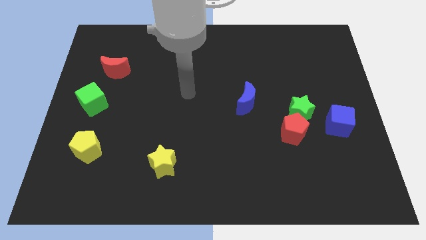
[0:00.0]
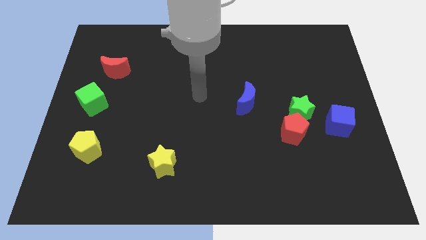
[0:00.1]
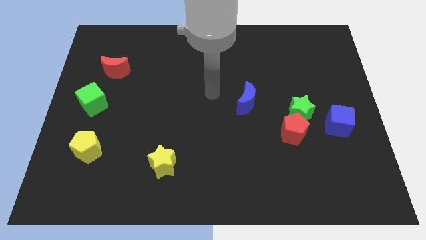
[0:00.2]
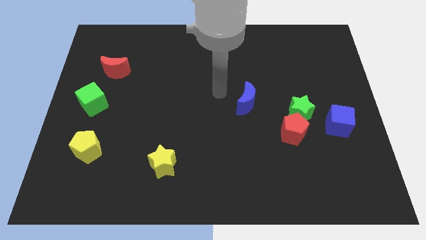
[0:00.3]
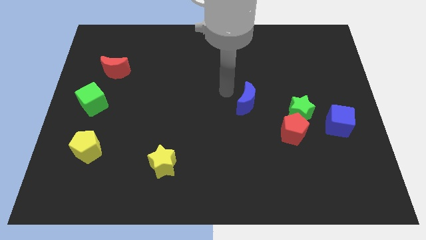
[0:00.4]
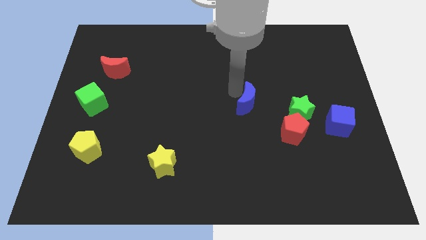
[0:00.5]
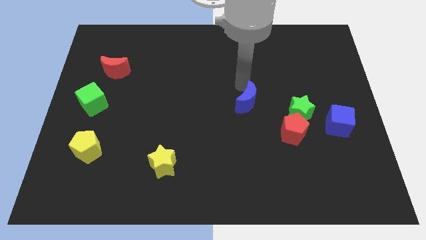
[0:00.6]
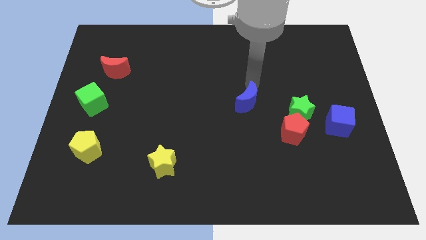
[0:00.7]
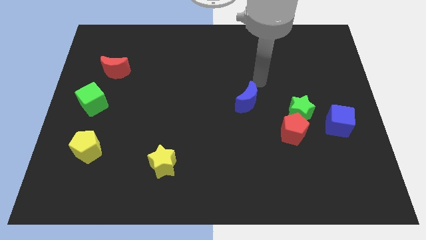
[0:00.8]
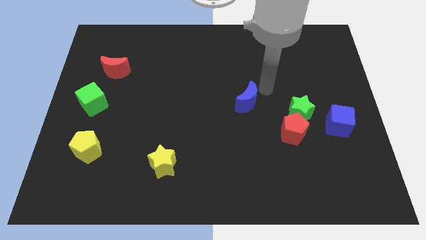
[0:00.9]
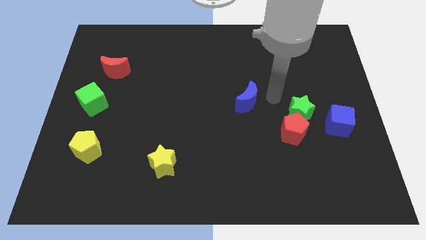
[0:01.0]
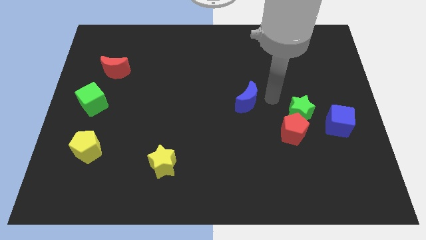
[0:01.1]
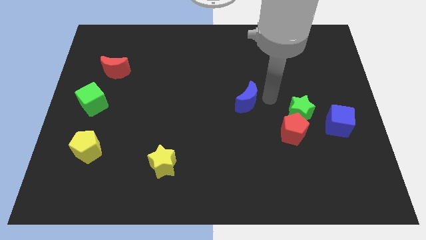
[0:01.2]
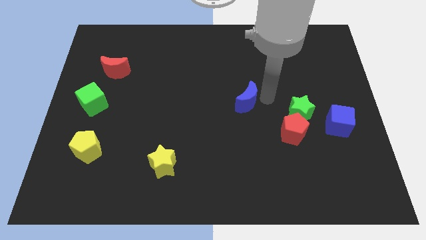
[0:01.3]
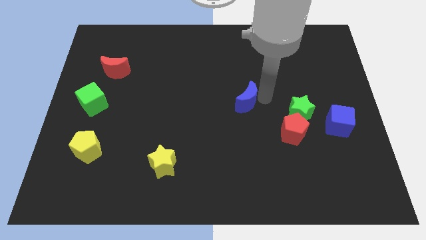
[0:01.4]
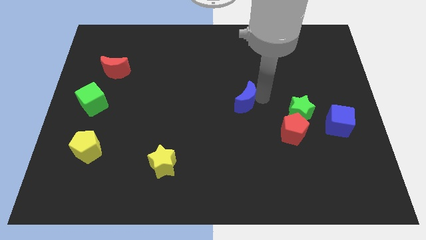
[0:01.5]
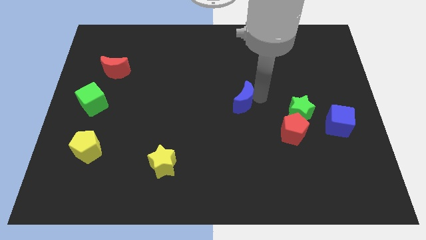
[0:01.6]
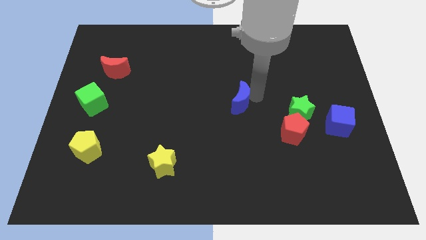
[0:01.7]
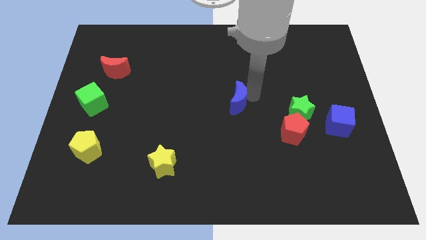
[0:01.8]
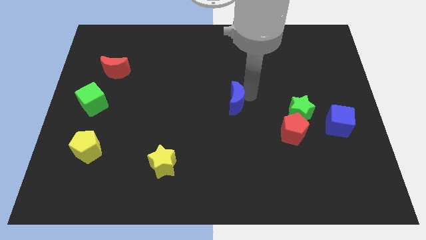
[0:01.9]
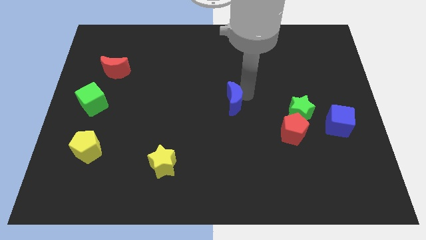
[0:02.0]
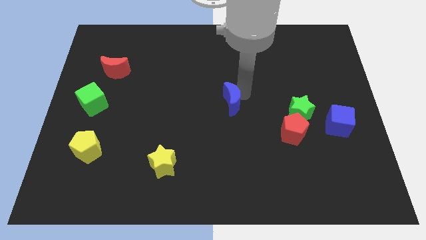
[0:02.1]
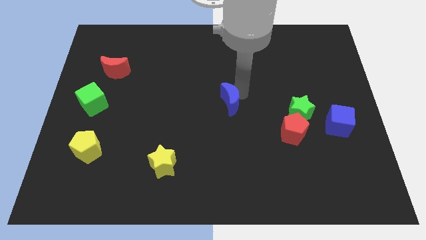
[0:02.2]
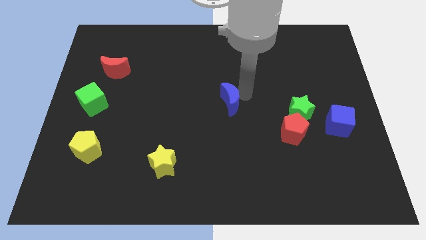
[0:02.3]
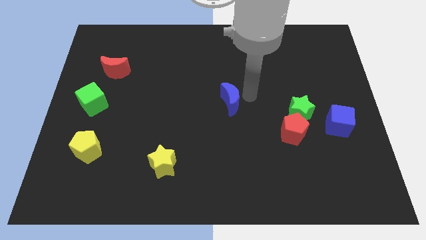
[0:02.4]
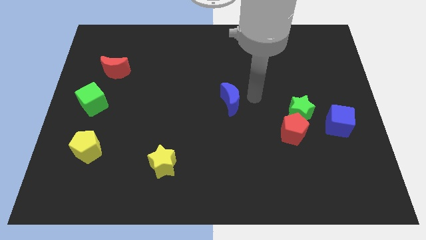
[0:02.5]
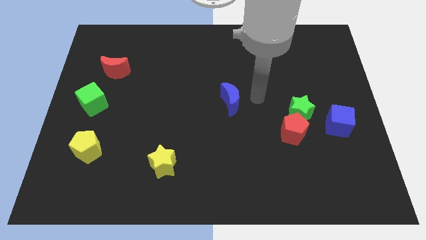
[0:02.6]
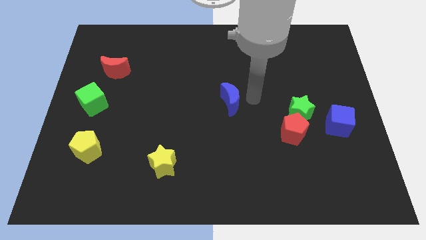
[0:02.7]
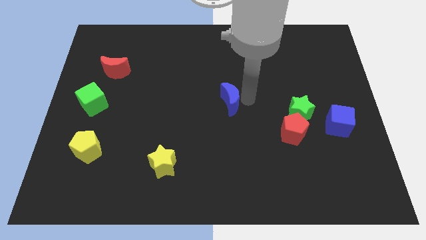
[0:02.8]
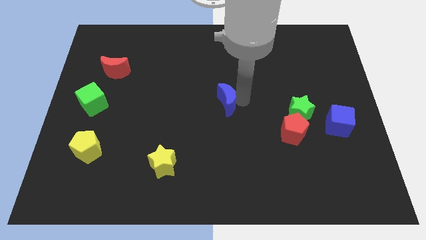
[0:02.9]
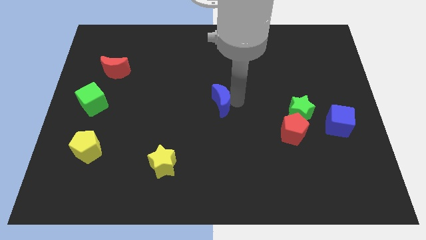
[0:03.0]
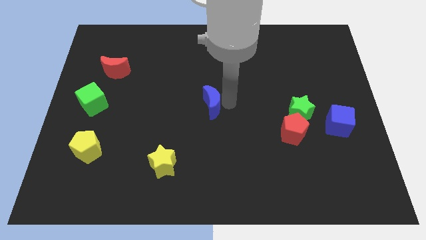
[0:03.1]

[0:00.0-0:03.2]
push the blue moon slightly left

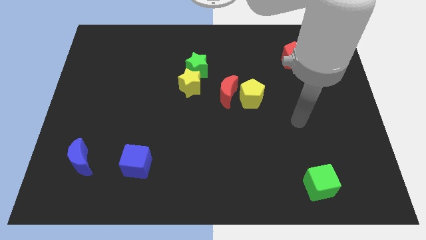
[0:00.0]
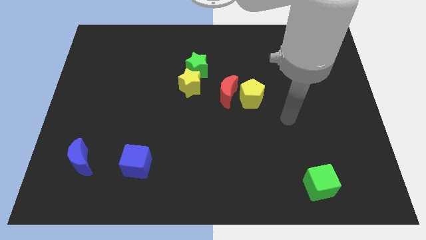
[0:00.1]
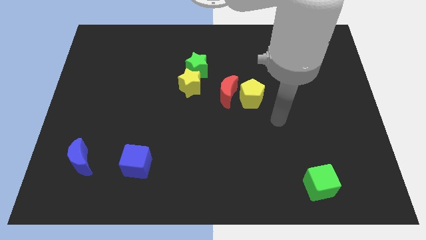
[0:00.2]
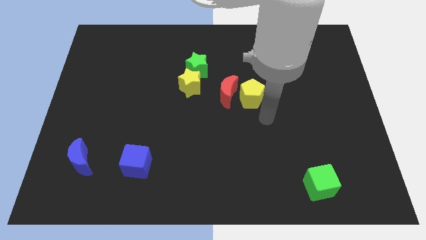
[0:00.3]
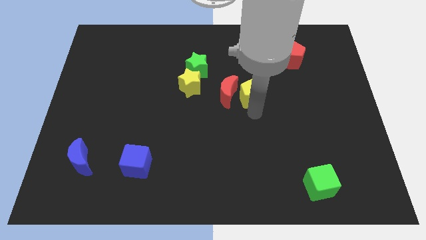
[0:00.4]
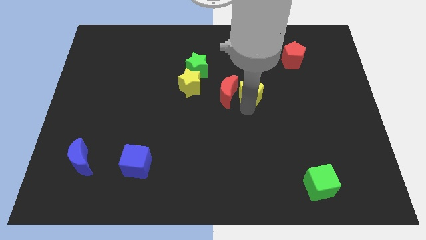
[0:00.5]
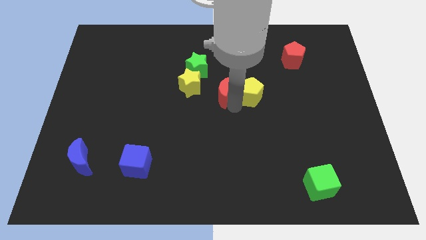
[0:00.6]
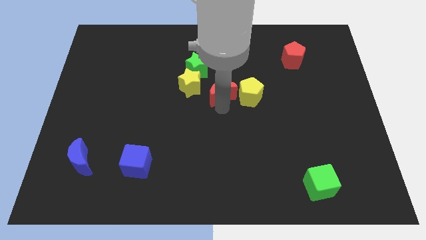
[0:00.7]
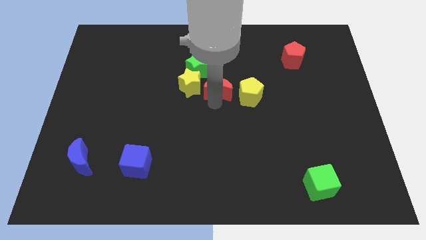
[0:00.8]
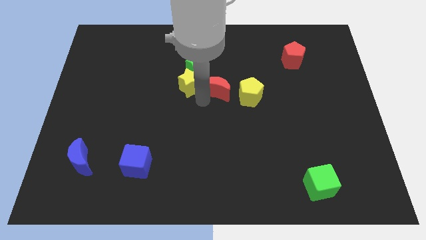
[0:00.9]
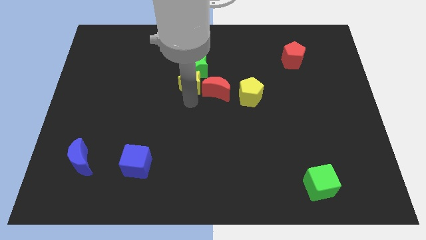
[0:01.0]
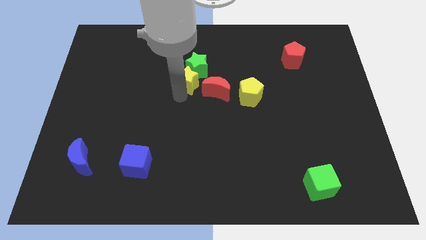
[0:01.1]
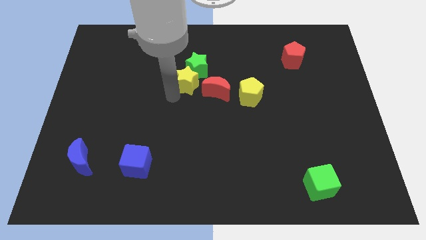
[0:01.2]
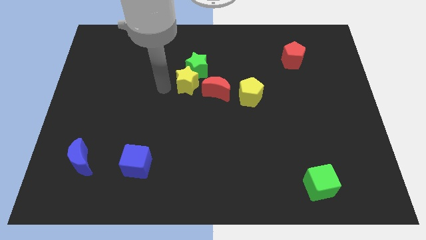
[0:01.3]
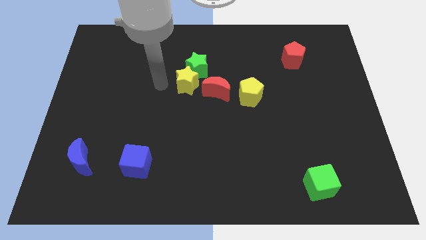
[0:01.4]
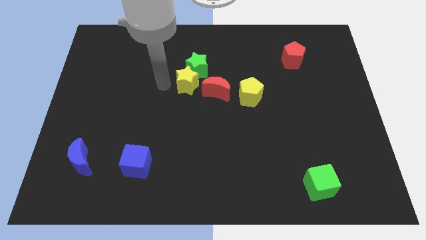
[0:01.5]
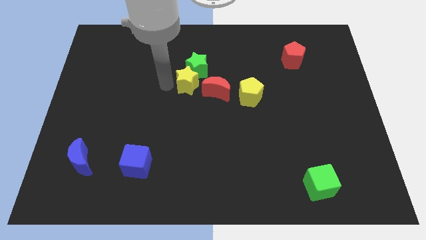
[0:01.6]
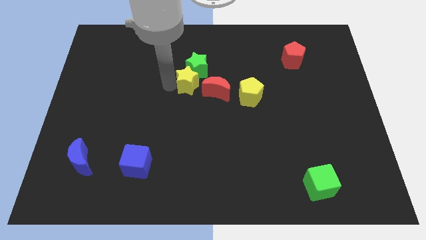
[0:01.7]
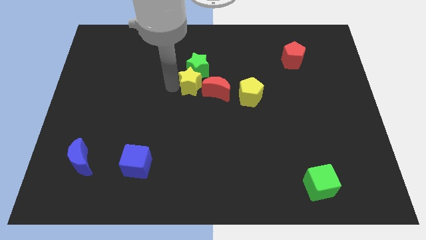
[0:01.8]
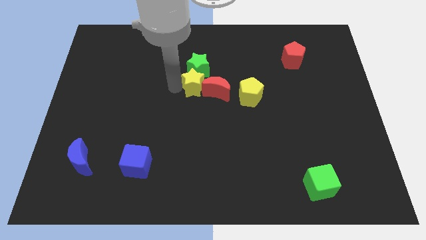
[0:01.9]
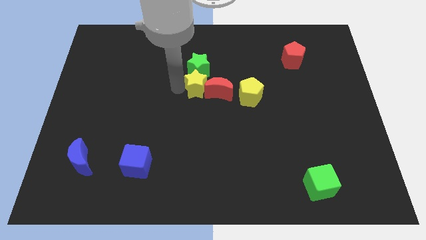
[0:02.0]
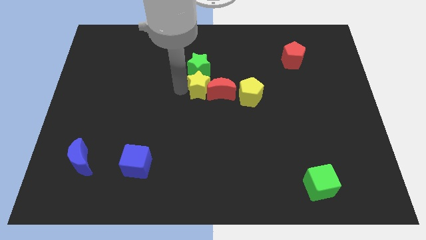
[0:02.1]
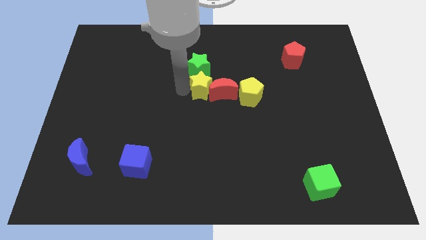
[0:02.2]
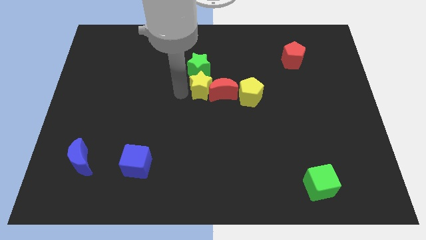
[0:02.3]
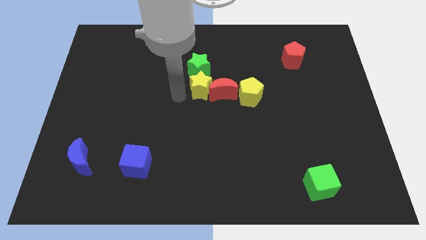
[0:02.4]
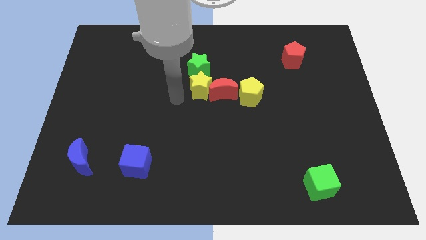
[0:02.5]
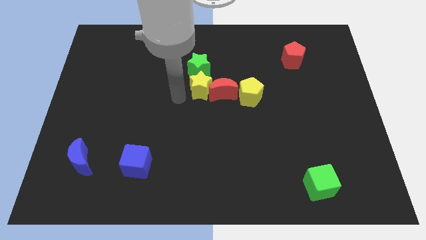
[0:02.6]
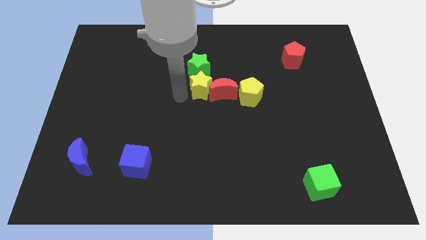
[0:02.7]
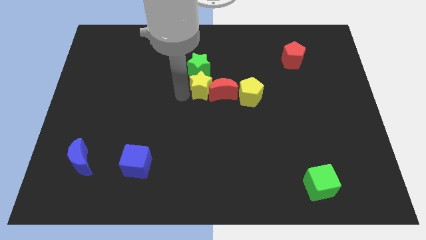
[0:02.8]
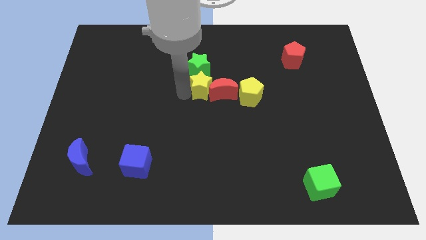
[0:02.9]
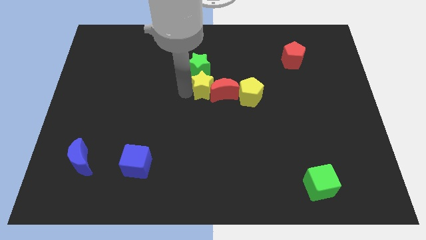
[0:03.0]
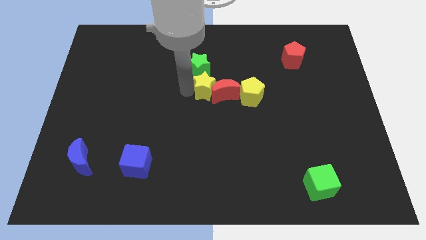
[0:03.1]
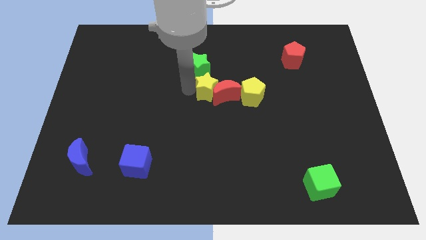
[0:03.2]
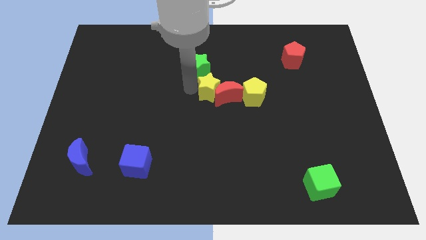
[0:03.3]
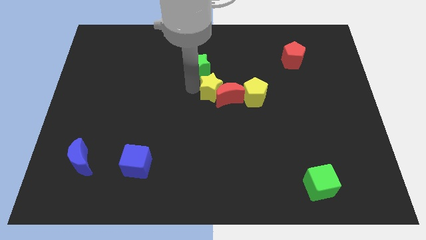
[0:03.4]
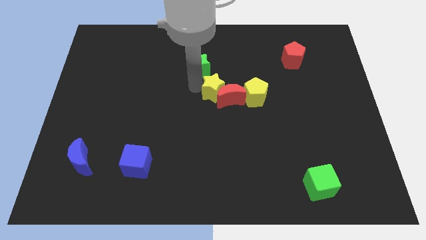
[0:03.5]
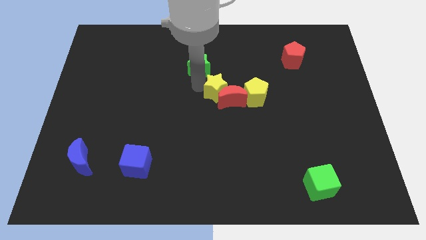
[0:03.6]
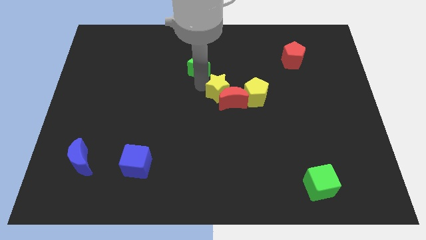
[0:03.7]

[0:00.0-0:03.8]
push the yellow star right slightly

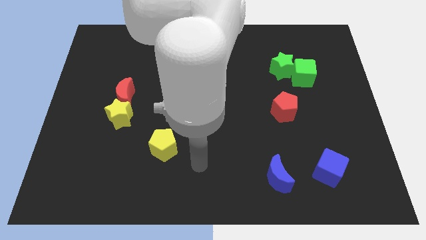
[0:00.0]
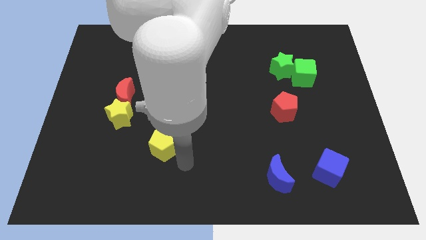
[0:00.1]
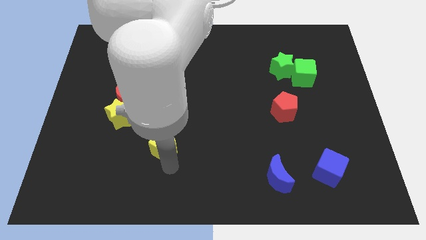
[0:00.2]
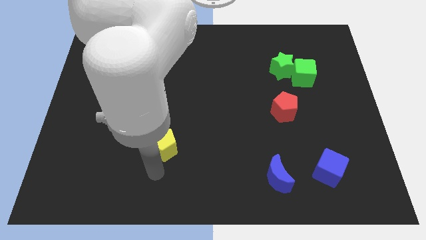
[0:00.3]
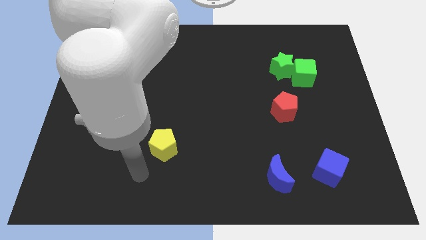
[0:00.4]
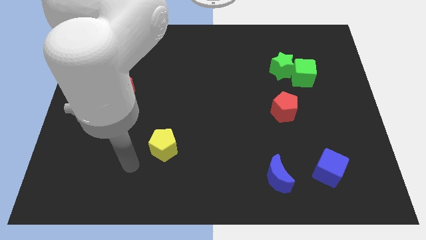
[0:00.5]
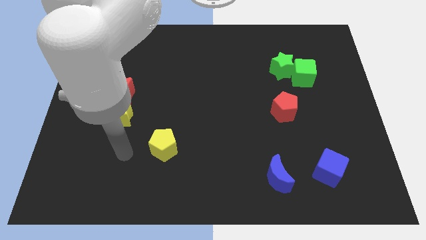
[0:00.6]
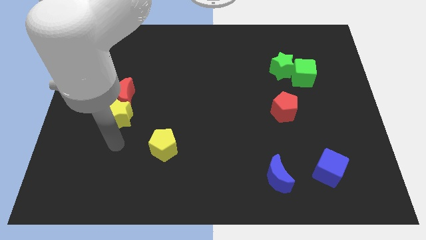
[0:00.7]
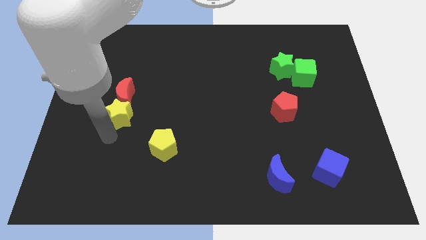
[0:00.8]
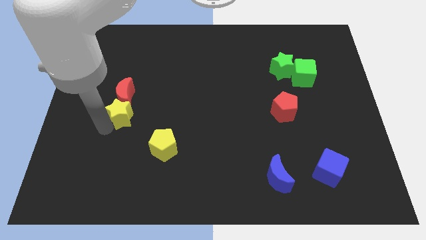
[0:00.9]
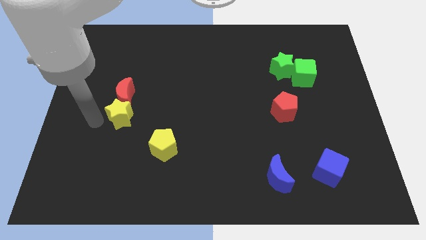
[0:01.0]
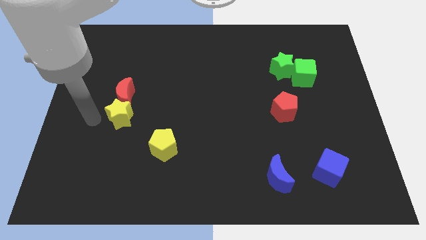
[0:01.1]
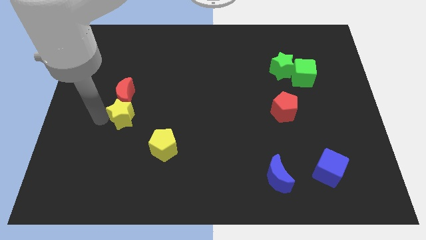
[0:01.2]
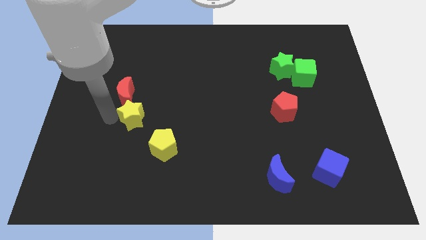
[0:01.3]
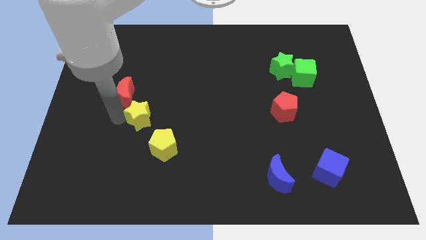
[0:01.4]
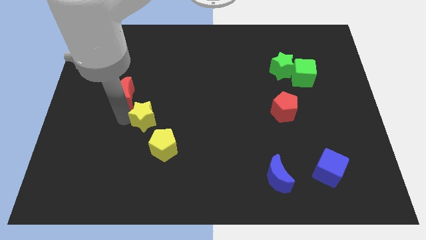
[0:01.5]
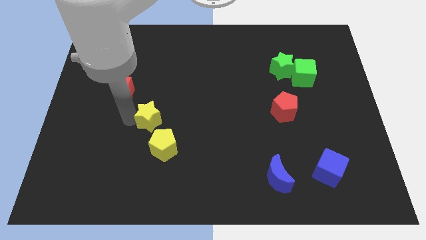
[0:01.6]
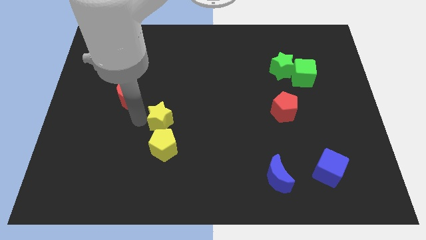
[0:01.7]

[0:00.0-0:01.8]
slide the yellow star to the right somewhat
